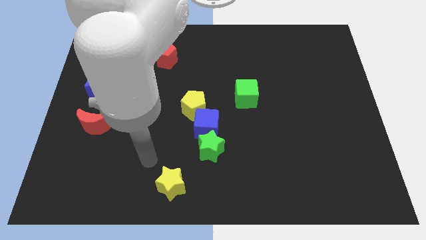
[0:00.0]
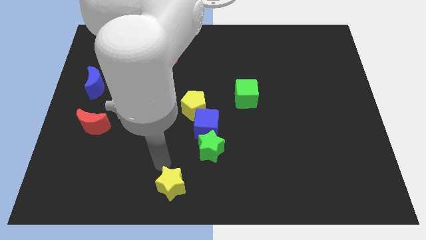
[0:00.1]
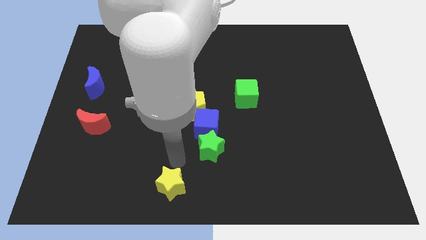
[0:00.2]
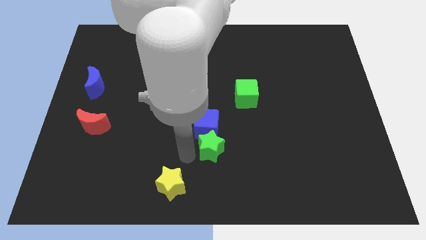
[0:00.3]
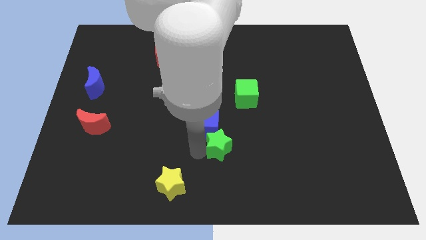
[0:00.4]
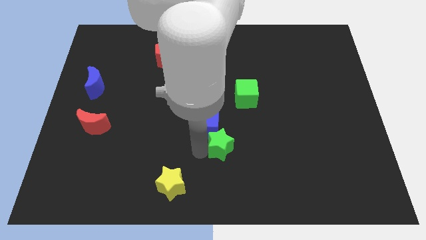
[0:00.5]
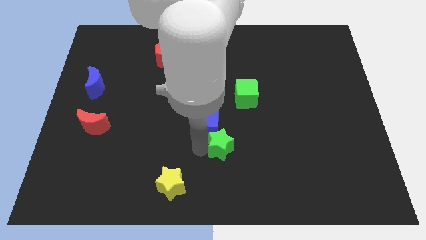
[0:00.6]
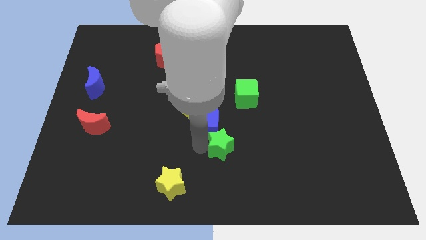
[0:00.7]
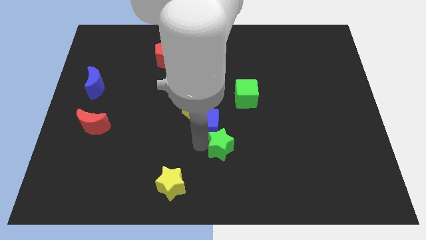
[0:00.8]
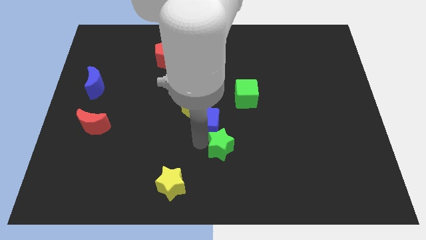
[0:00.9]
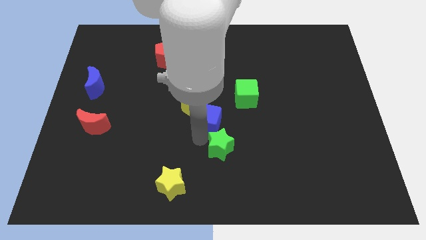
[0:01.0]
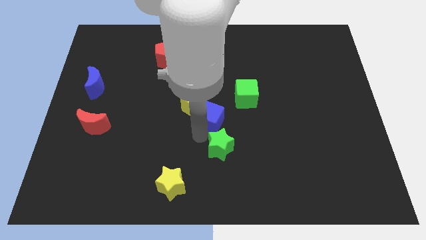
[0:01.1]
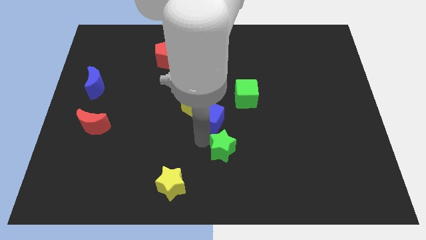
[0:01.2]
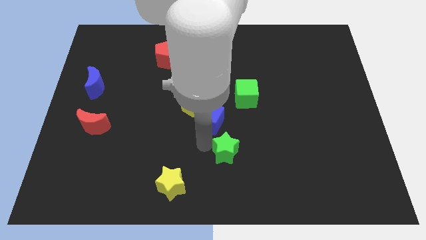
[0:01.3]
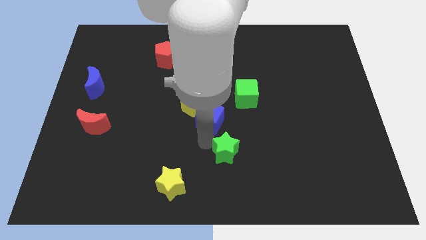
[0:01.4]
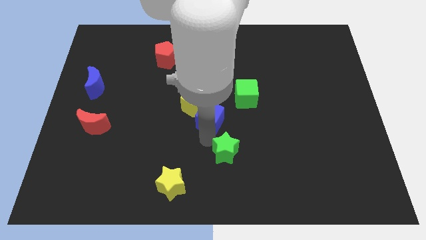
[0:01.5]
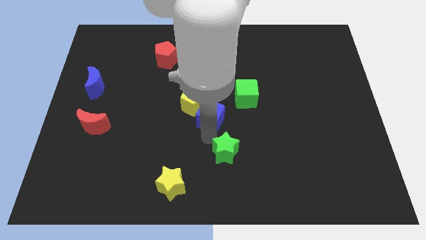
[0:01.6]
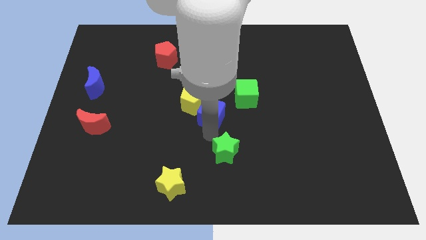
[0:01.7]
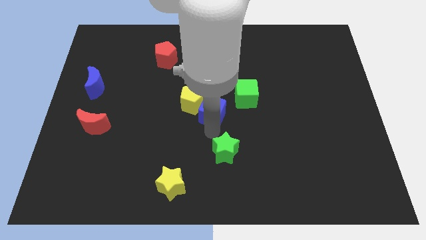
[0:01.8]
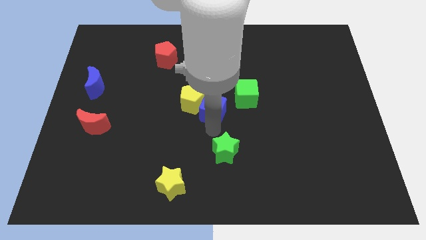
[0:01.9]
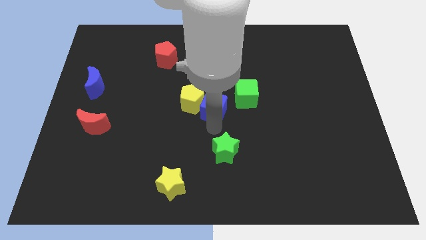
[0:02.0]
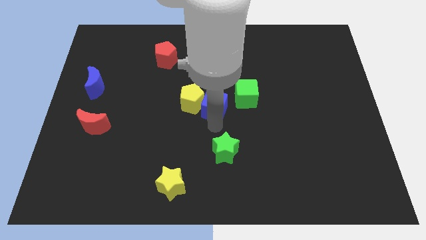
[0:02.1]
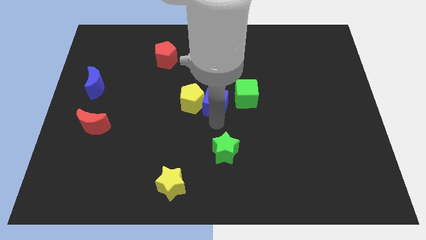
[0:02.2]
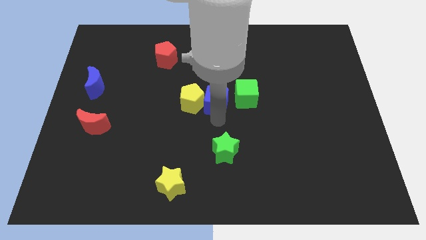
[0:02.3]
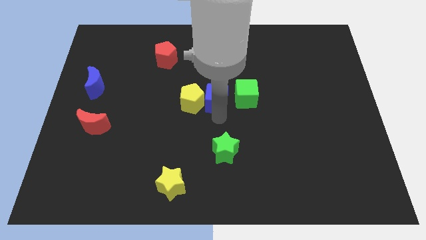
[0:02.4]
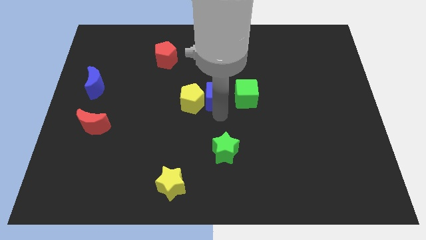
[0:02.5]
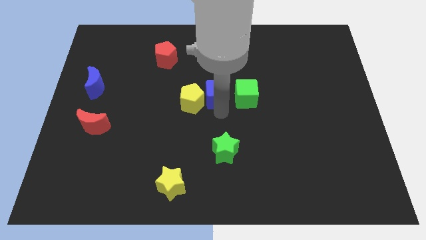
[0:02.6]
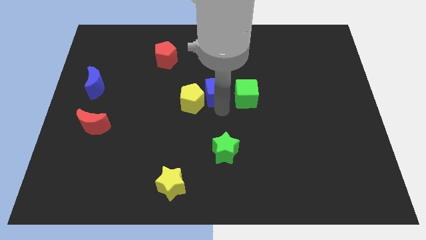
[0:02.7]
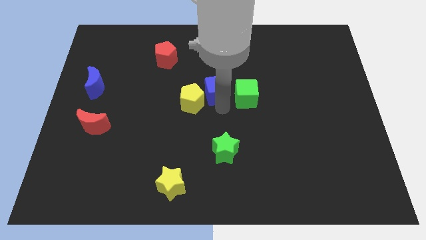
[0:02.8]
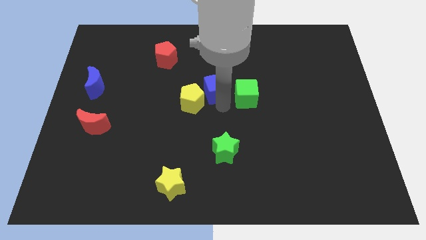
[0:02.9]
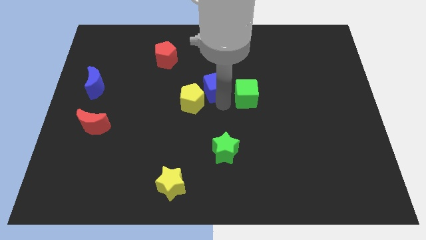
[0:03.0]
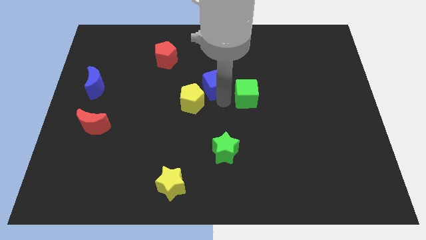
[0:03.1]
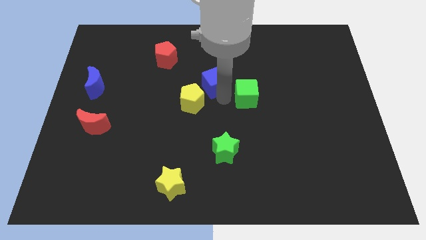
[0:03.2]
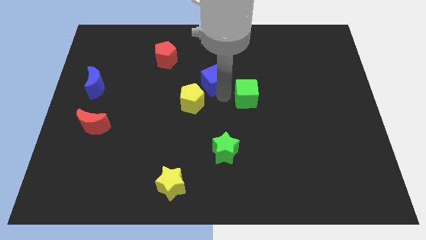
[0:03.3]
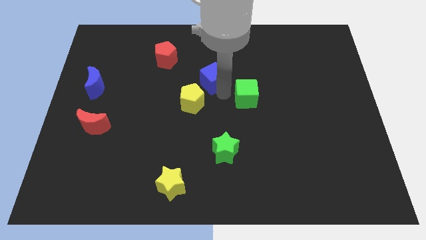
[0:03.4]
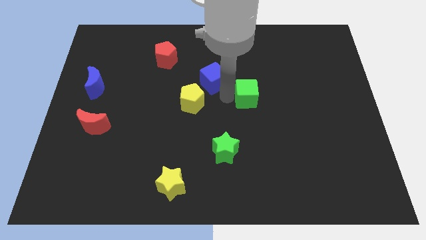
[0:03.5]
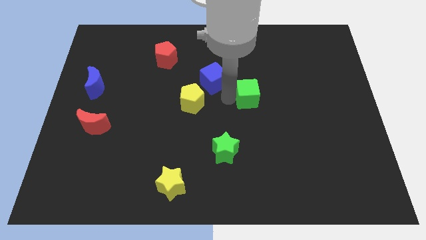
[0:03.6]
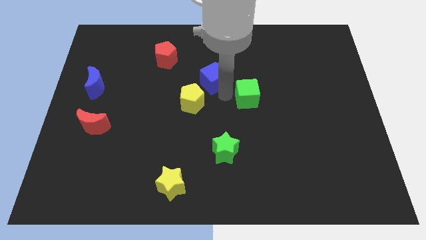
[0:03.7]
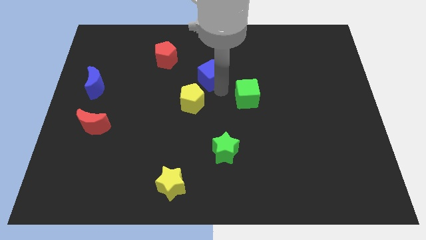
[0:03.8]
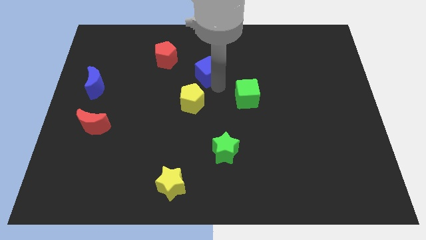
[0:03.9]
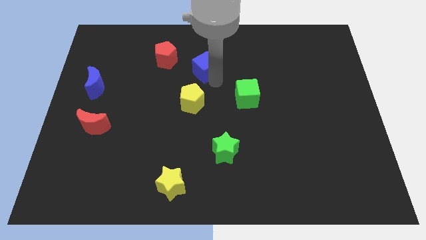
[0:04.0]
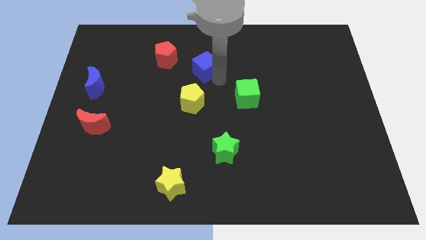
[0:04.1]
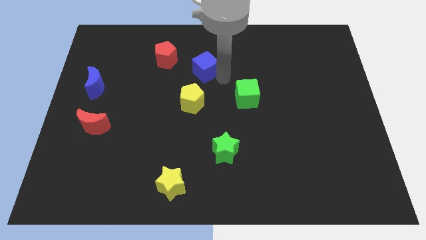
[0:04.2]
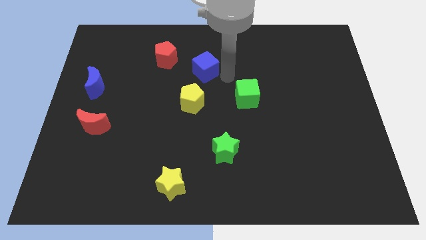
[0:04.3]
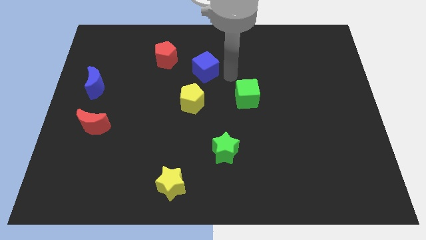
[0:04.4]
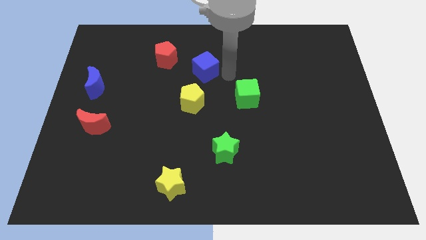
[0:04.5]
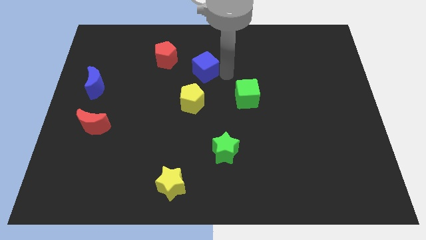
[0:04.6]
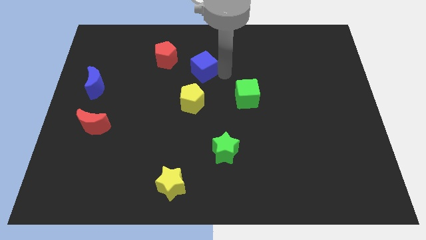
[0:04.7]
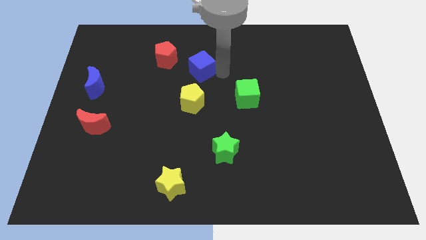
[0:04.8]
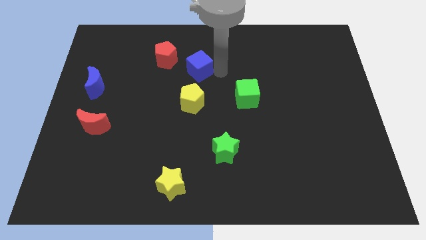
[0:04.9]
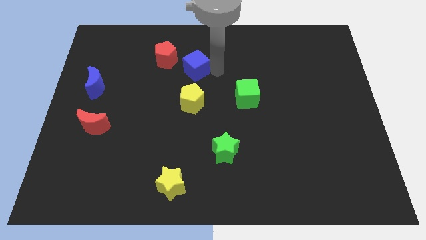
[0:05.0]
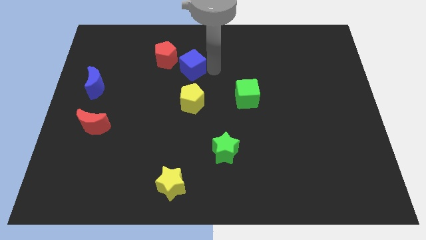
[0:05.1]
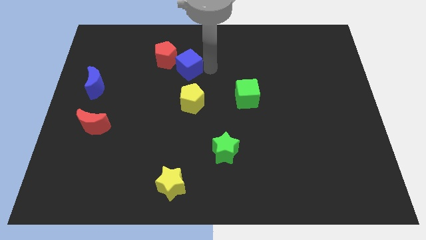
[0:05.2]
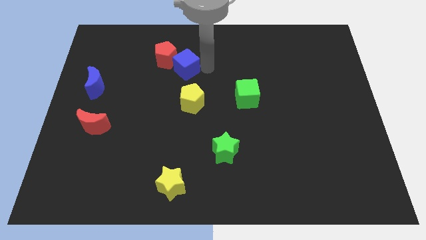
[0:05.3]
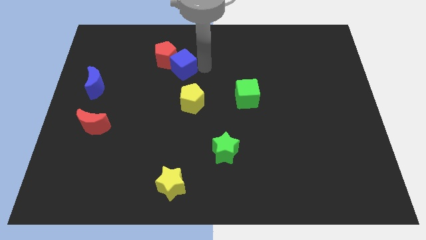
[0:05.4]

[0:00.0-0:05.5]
slide the blue cube next to the red pentagon

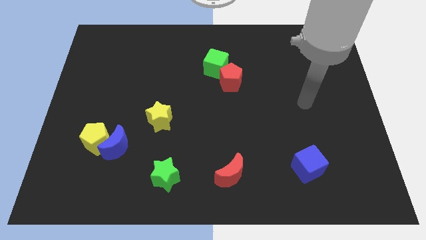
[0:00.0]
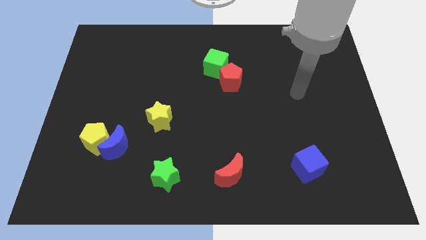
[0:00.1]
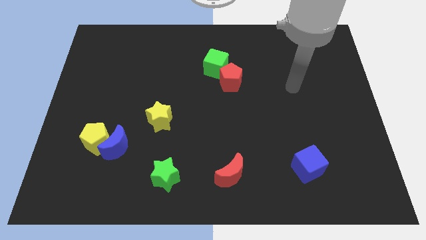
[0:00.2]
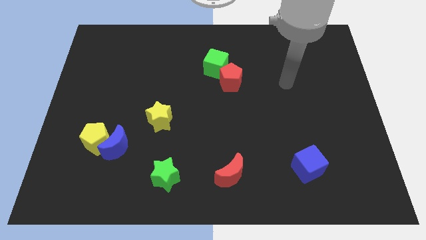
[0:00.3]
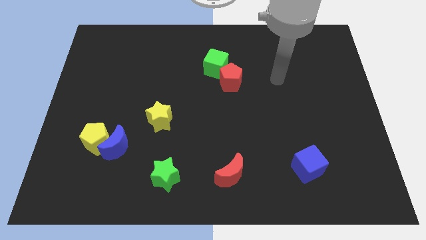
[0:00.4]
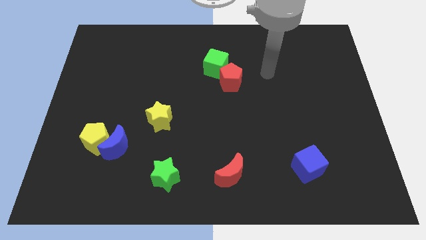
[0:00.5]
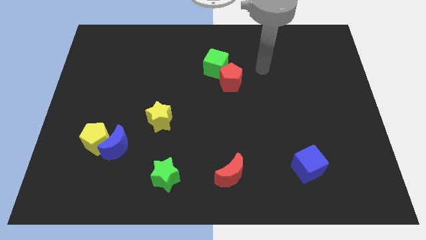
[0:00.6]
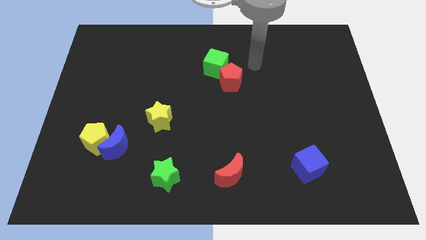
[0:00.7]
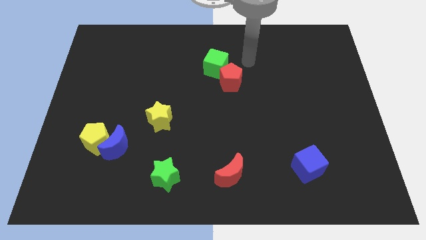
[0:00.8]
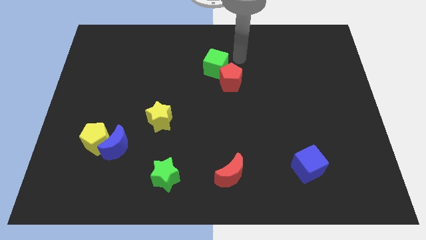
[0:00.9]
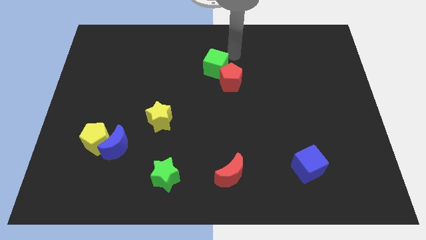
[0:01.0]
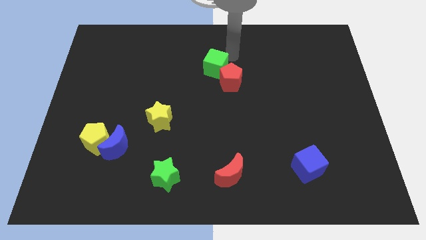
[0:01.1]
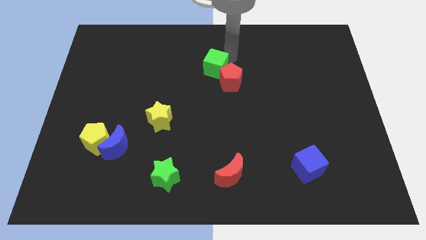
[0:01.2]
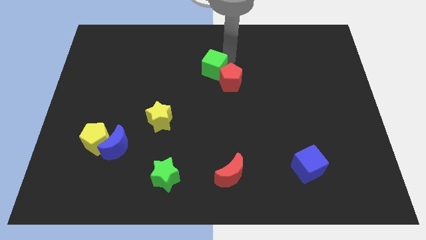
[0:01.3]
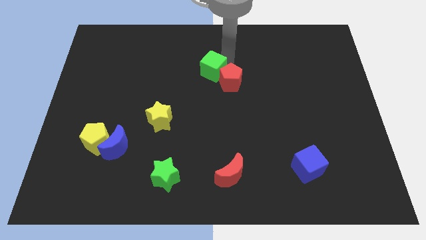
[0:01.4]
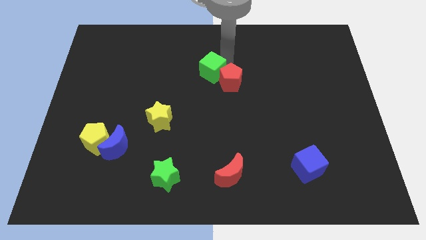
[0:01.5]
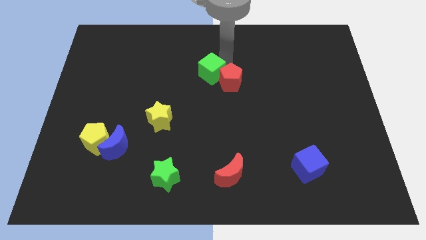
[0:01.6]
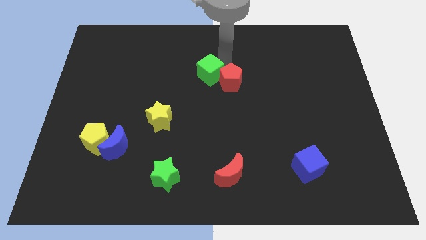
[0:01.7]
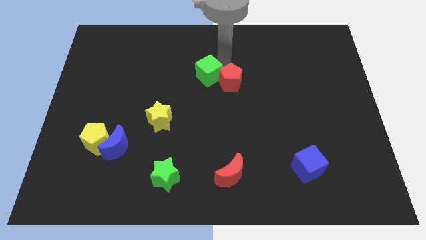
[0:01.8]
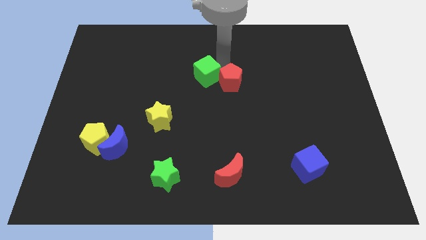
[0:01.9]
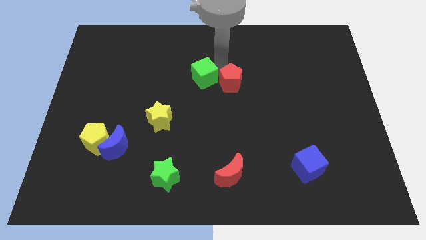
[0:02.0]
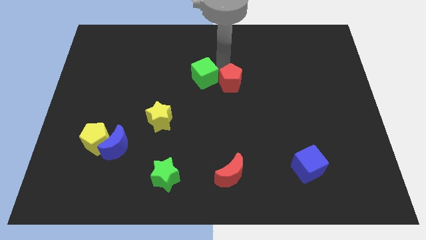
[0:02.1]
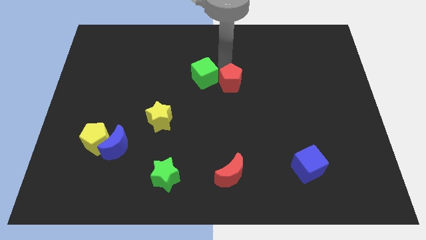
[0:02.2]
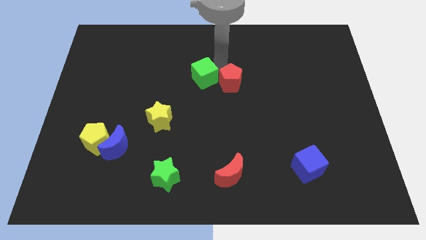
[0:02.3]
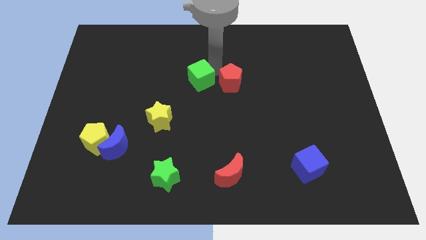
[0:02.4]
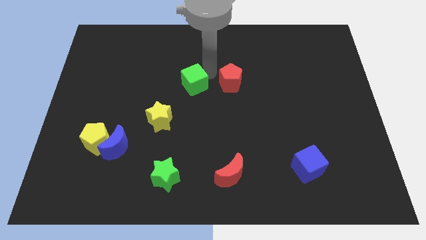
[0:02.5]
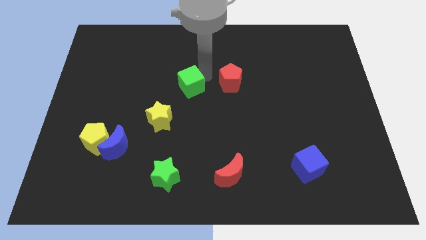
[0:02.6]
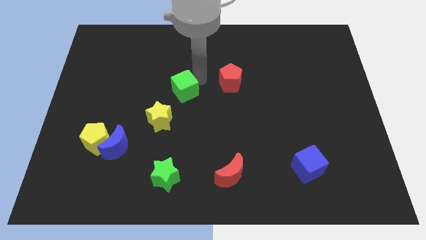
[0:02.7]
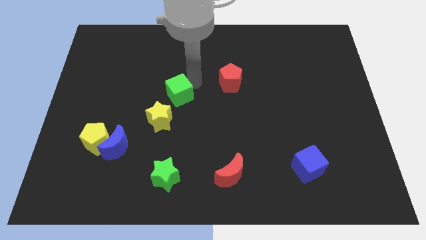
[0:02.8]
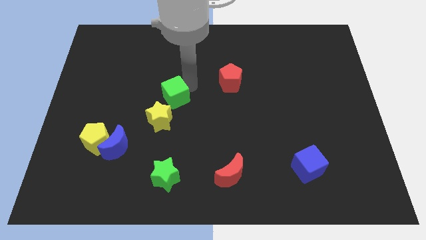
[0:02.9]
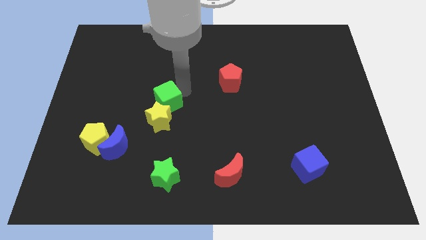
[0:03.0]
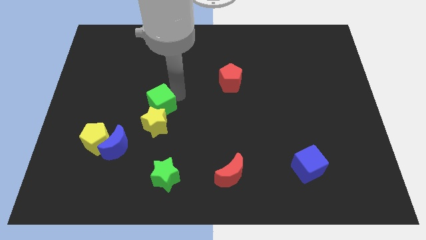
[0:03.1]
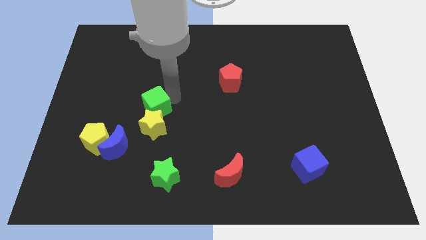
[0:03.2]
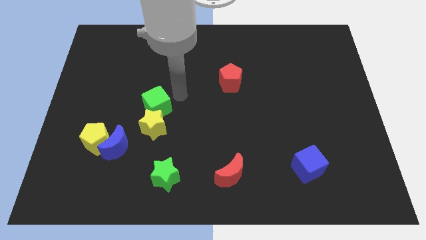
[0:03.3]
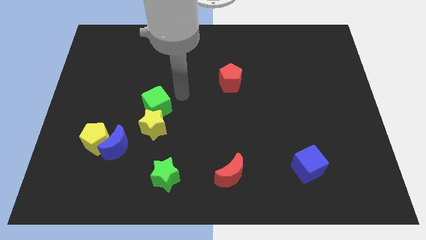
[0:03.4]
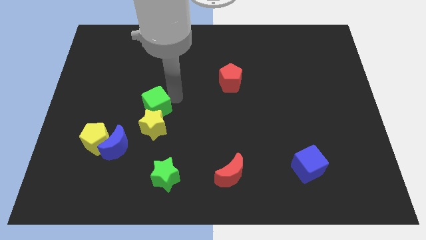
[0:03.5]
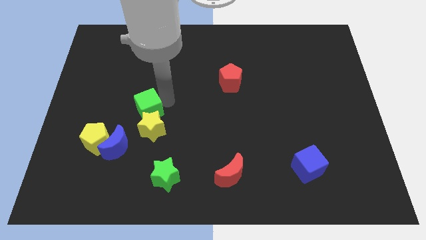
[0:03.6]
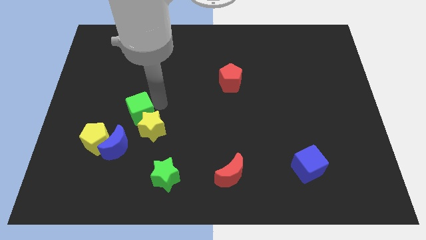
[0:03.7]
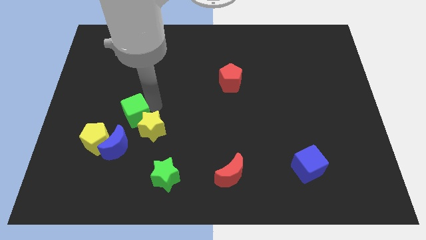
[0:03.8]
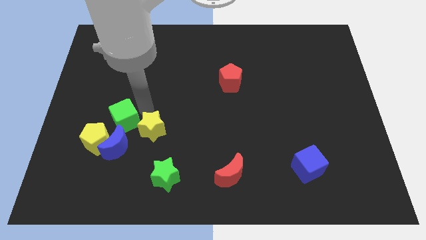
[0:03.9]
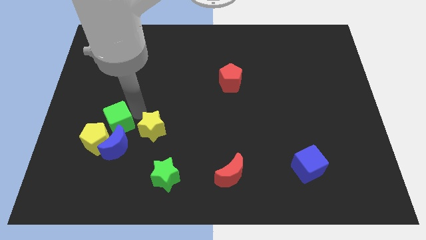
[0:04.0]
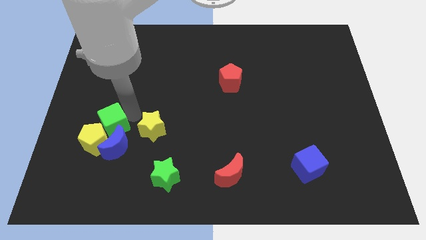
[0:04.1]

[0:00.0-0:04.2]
slide the green cube towards the yellow pentagon
